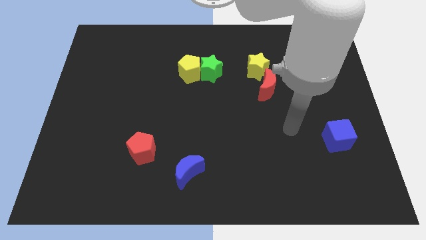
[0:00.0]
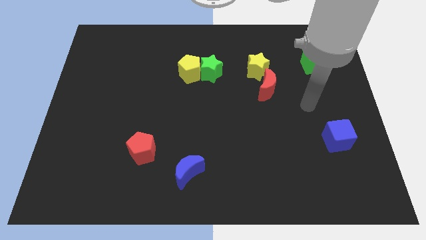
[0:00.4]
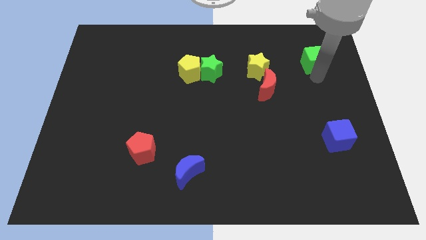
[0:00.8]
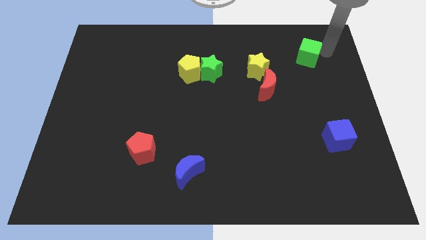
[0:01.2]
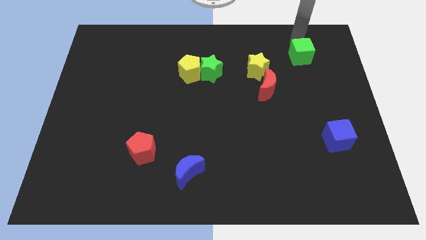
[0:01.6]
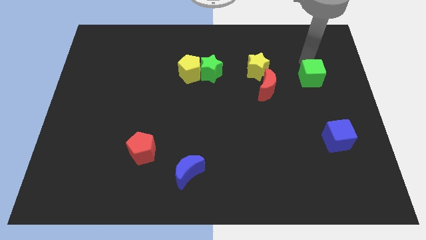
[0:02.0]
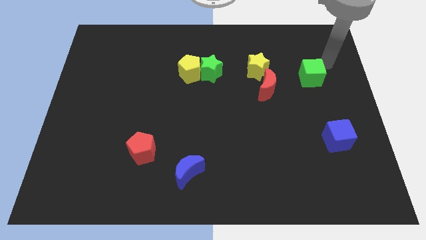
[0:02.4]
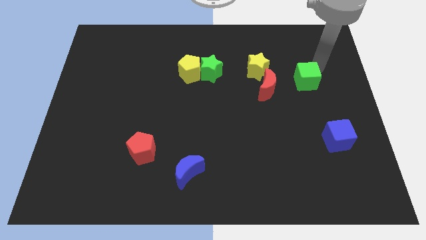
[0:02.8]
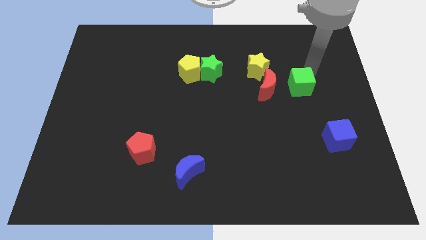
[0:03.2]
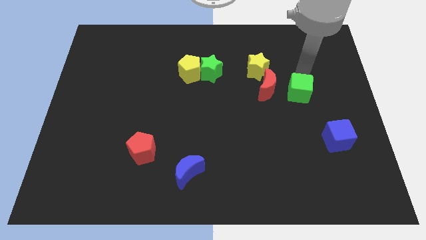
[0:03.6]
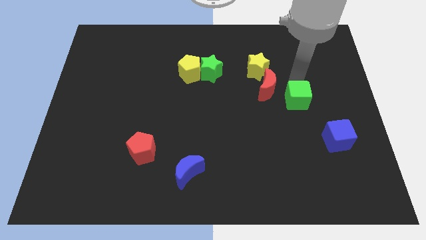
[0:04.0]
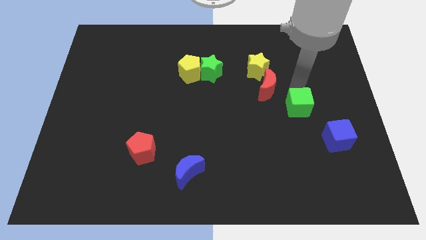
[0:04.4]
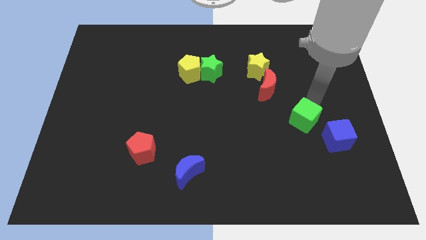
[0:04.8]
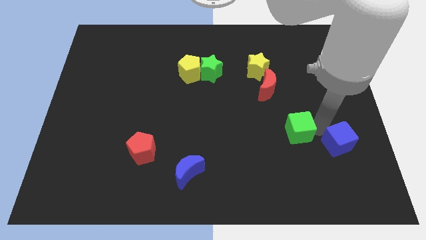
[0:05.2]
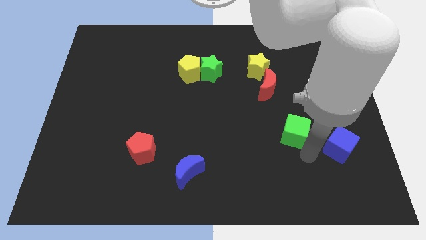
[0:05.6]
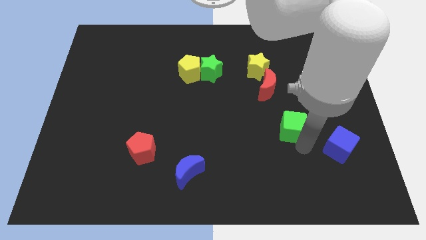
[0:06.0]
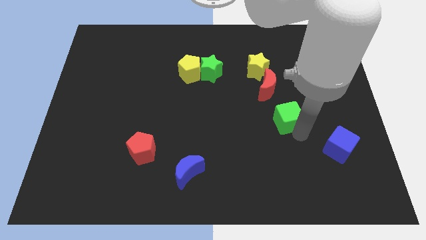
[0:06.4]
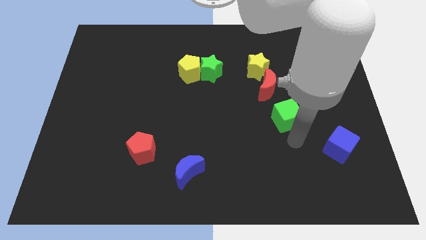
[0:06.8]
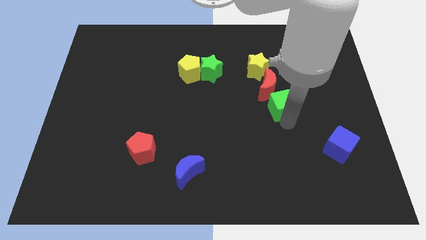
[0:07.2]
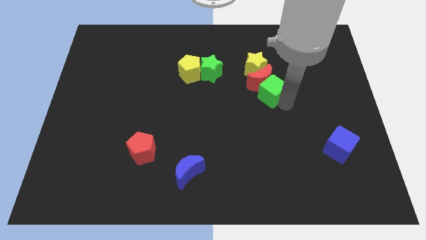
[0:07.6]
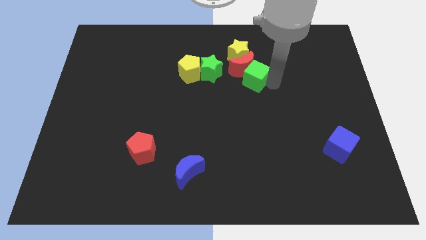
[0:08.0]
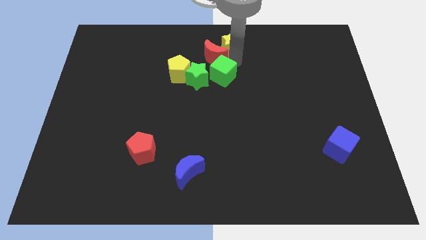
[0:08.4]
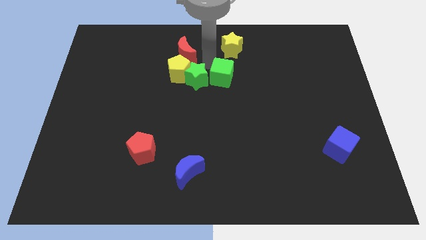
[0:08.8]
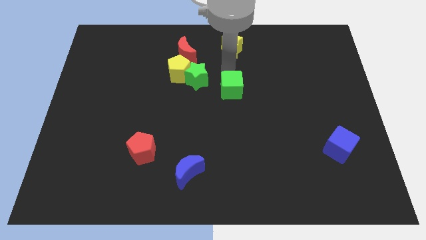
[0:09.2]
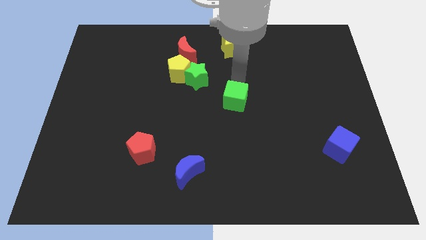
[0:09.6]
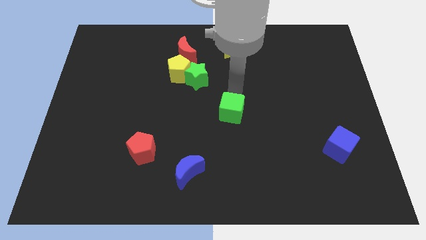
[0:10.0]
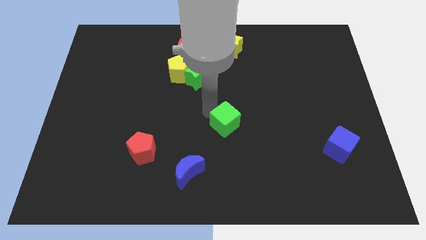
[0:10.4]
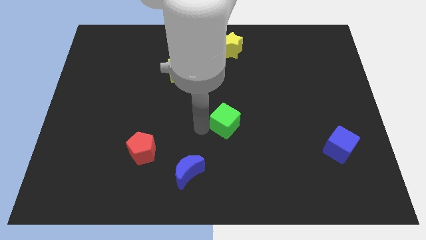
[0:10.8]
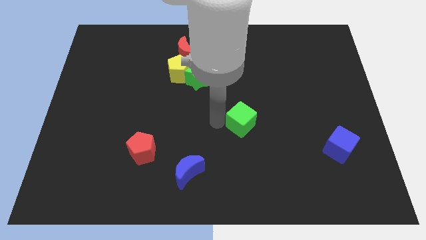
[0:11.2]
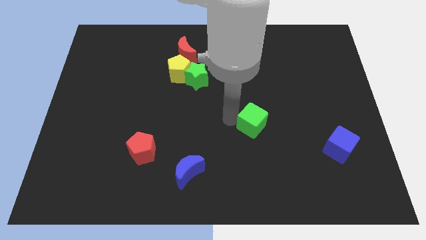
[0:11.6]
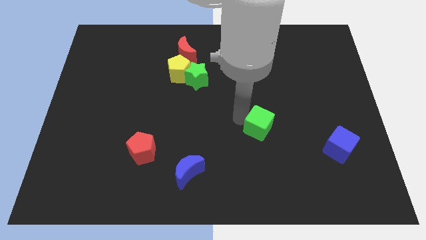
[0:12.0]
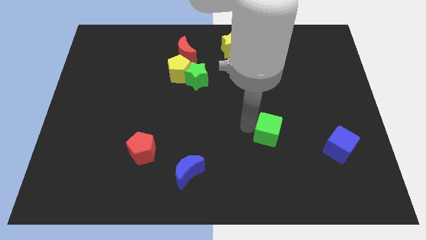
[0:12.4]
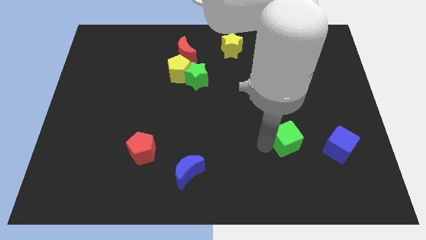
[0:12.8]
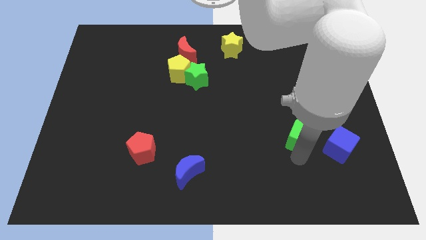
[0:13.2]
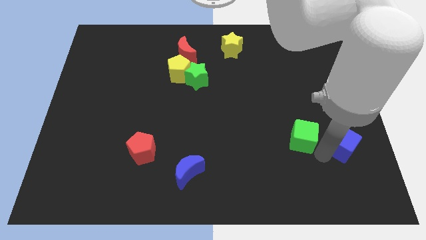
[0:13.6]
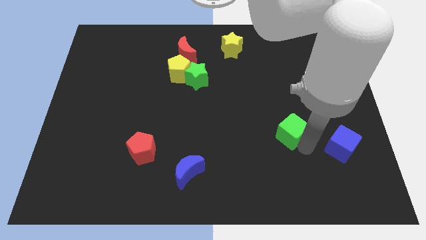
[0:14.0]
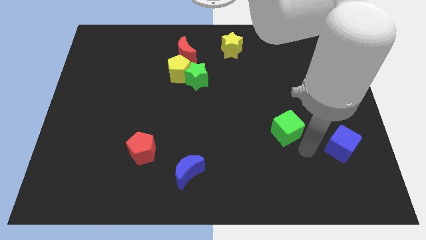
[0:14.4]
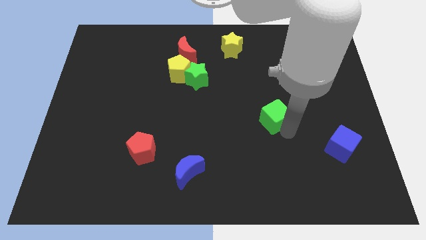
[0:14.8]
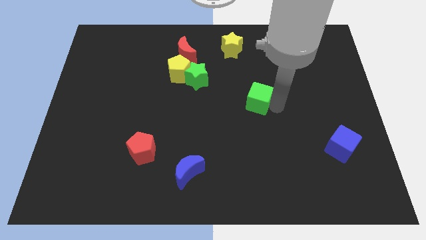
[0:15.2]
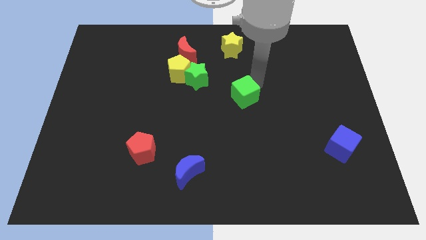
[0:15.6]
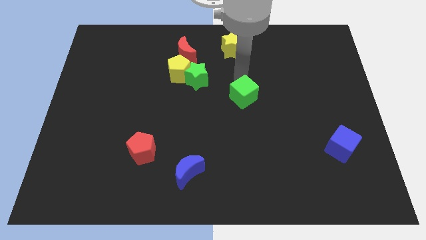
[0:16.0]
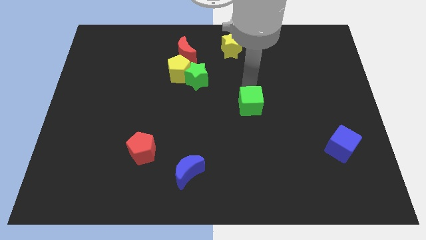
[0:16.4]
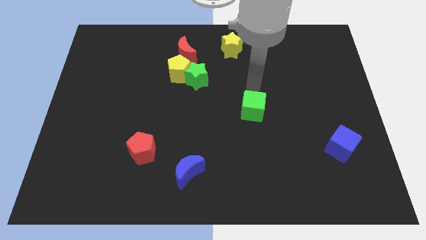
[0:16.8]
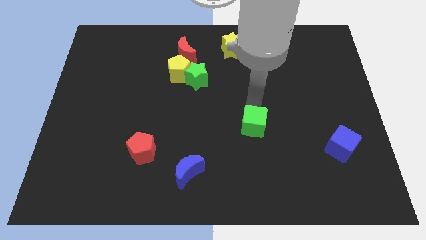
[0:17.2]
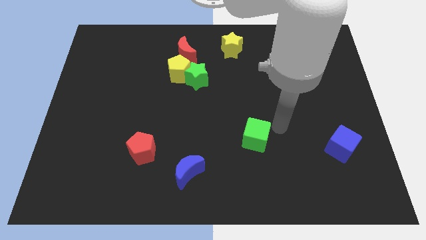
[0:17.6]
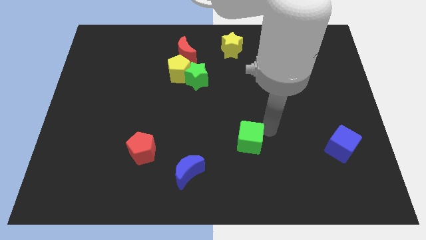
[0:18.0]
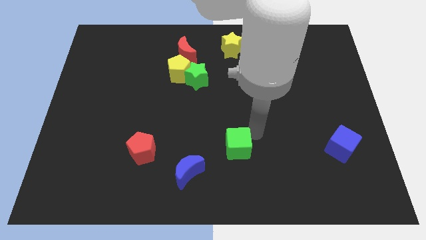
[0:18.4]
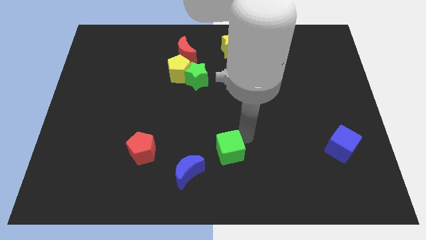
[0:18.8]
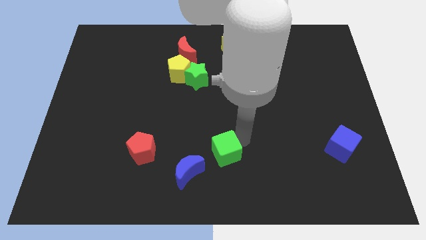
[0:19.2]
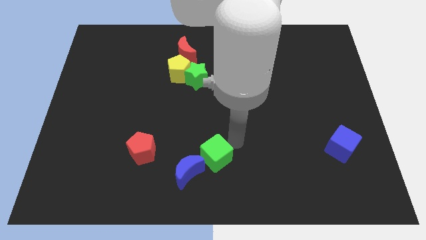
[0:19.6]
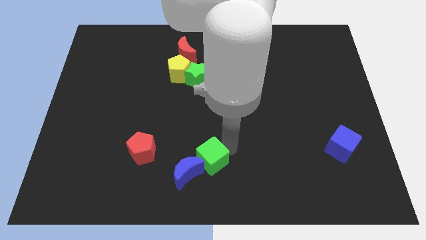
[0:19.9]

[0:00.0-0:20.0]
slide the green cube to the blue moon

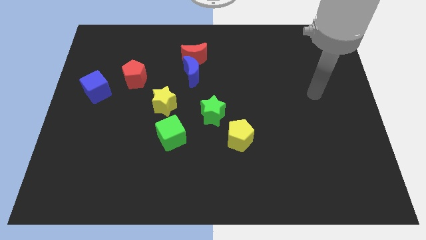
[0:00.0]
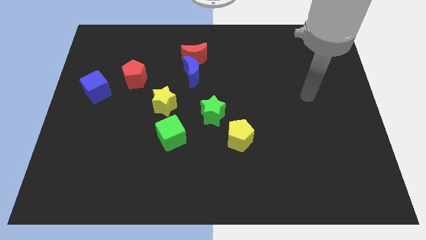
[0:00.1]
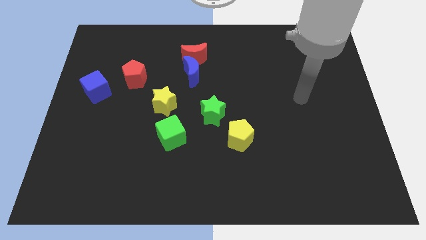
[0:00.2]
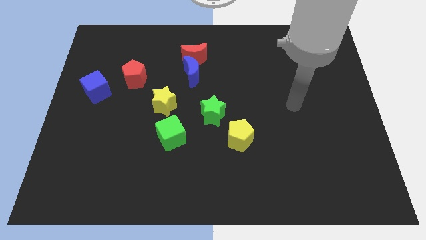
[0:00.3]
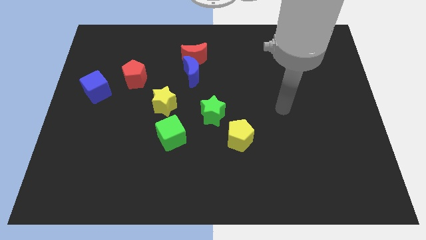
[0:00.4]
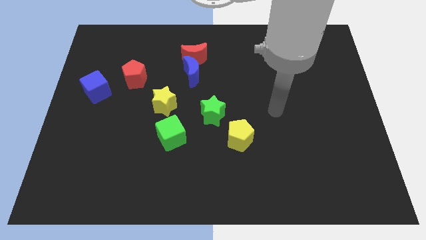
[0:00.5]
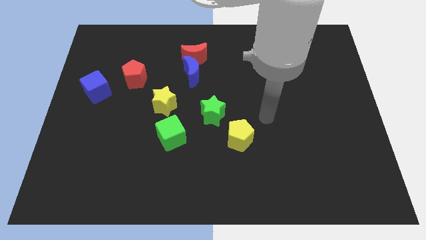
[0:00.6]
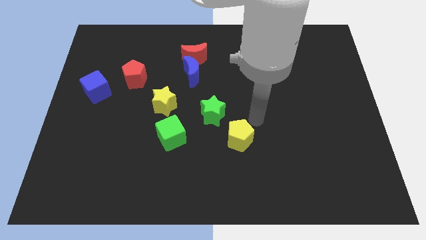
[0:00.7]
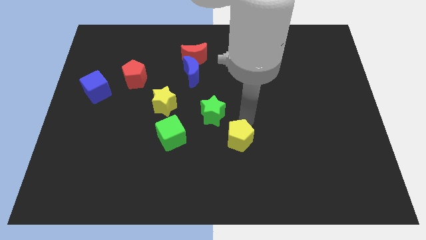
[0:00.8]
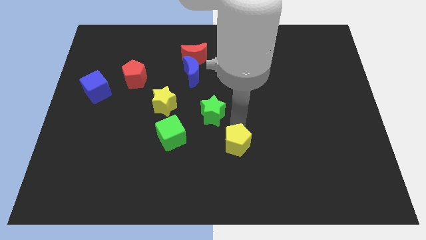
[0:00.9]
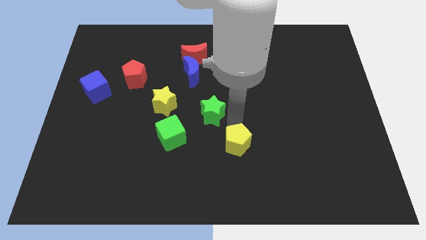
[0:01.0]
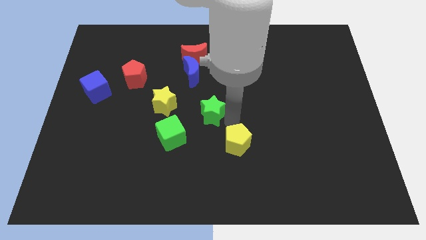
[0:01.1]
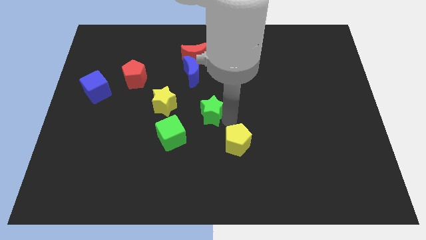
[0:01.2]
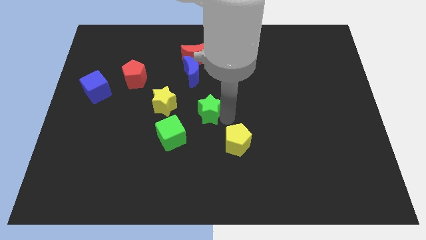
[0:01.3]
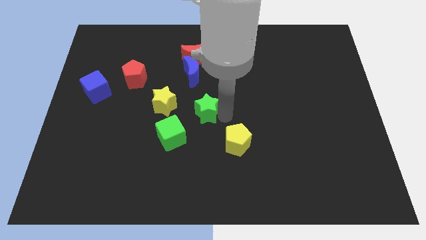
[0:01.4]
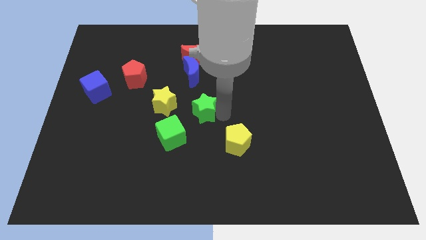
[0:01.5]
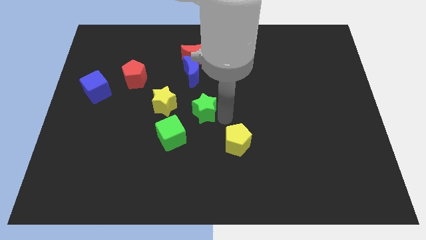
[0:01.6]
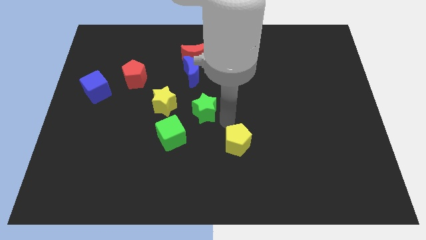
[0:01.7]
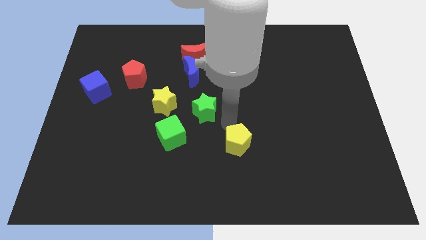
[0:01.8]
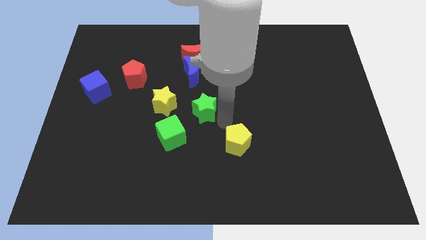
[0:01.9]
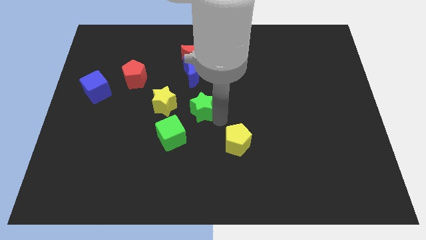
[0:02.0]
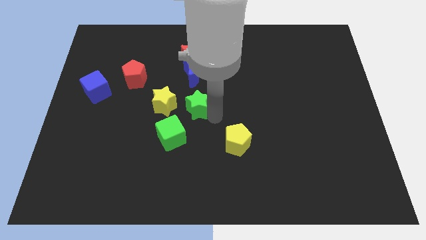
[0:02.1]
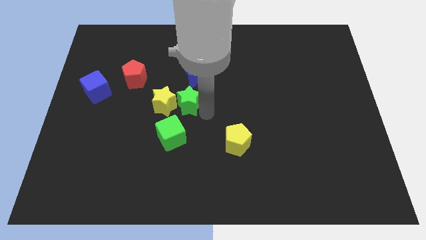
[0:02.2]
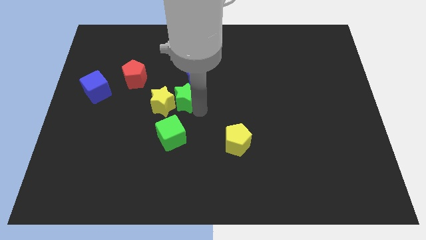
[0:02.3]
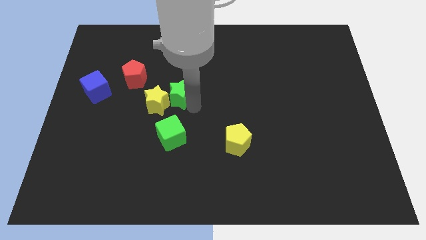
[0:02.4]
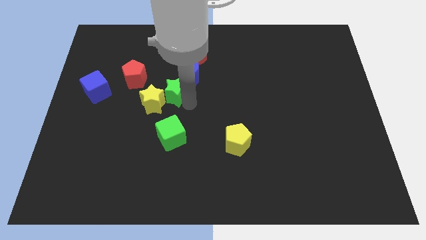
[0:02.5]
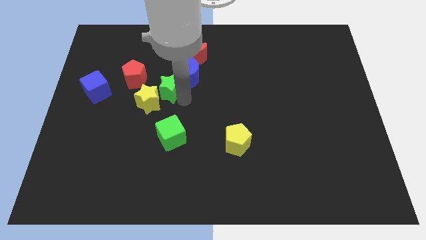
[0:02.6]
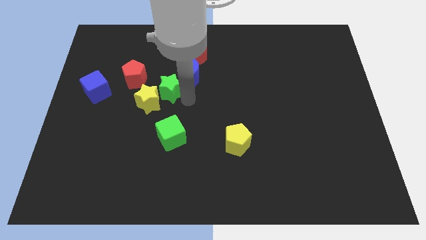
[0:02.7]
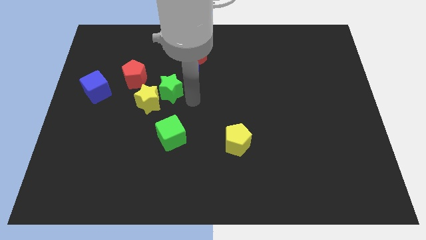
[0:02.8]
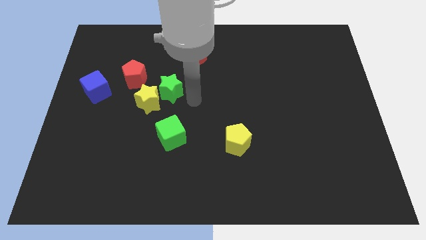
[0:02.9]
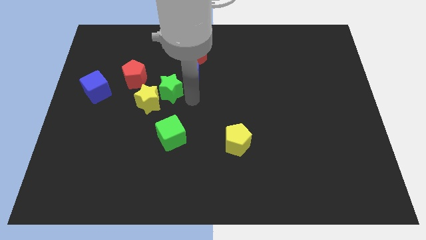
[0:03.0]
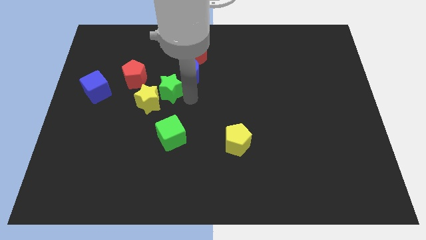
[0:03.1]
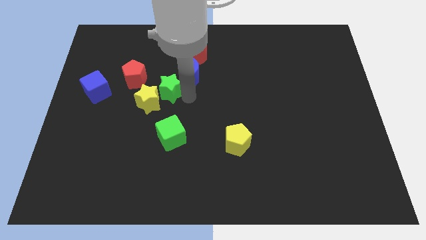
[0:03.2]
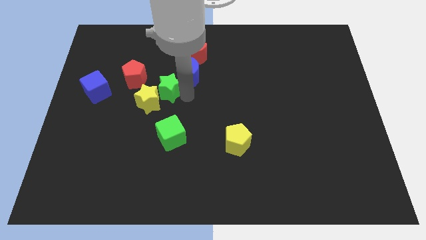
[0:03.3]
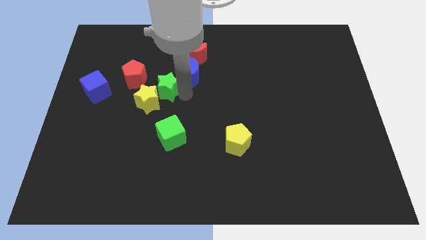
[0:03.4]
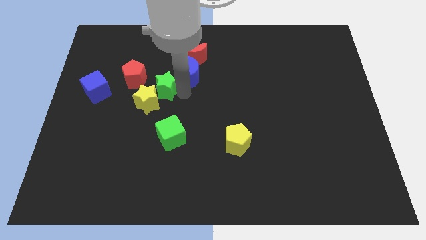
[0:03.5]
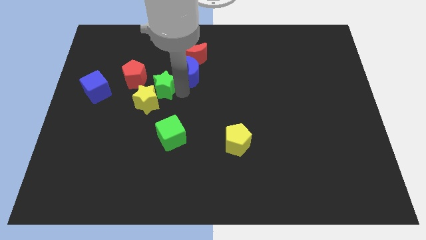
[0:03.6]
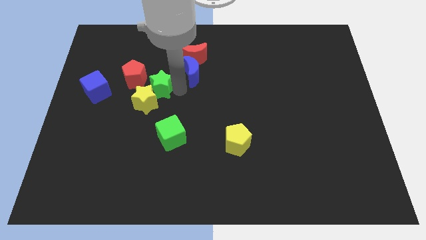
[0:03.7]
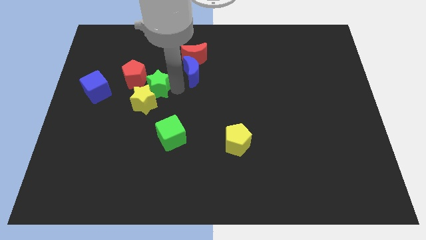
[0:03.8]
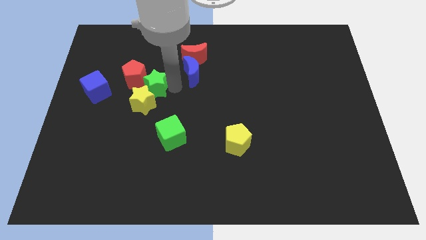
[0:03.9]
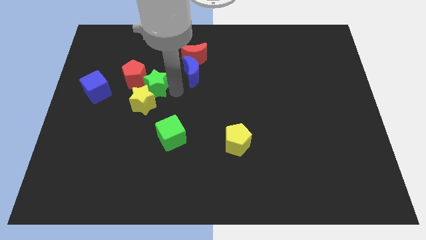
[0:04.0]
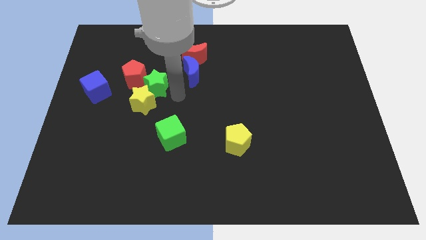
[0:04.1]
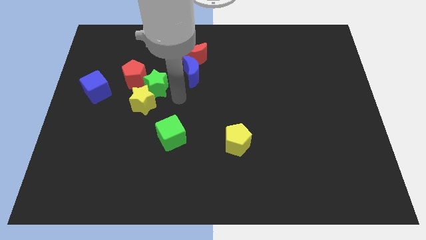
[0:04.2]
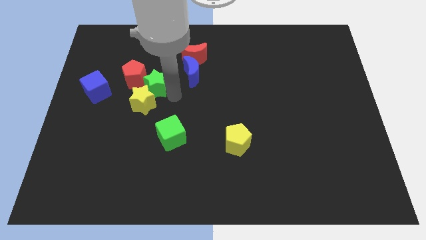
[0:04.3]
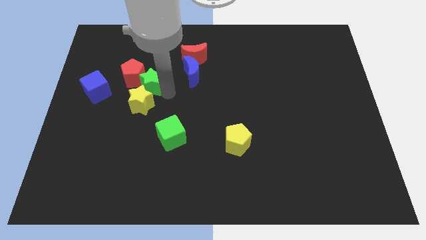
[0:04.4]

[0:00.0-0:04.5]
slide the green star next to the red pentagon
